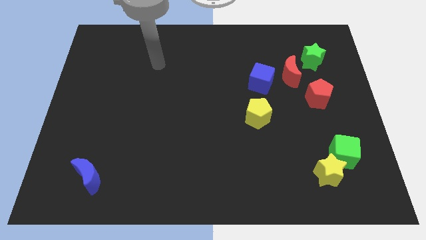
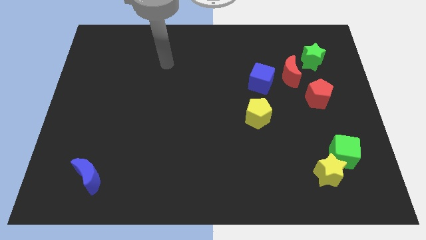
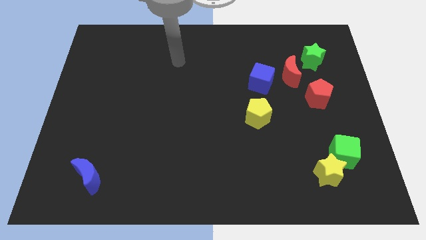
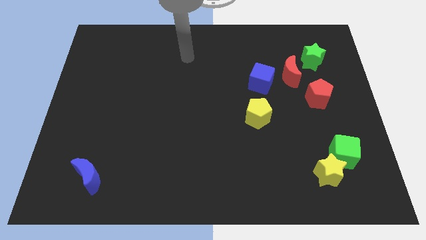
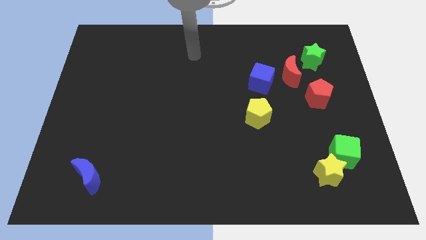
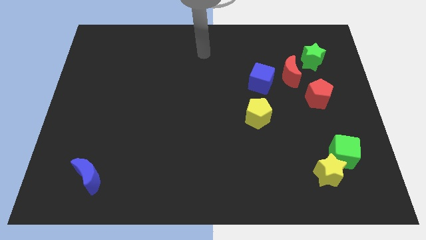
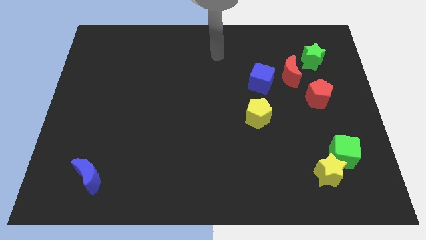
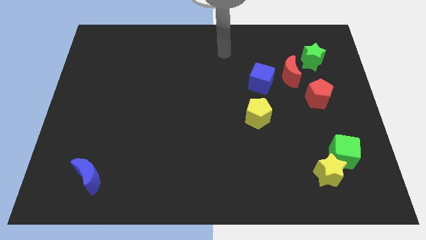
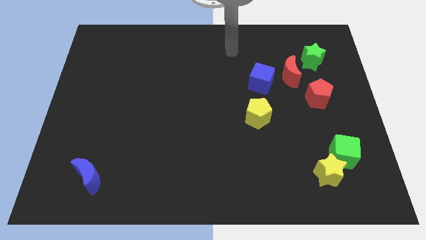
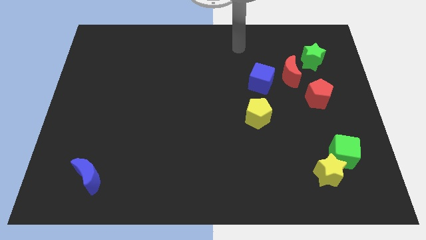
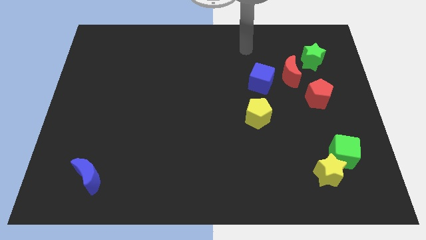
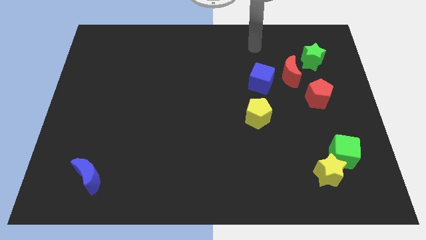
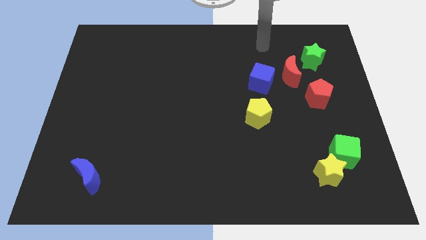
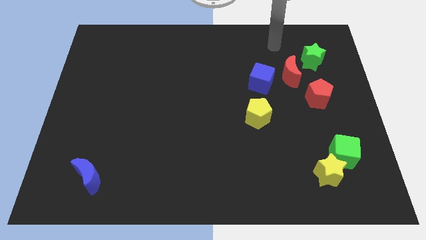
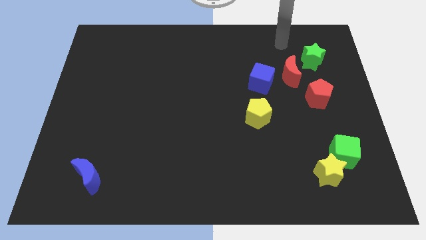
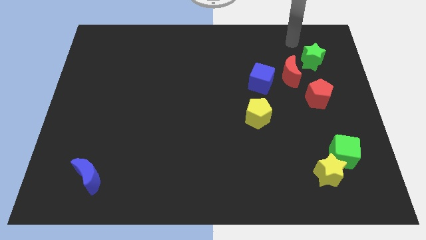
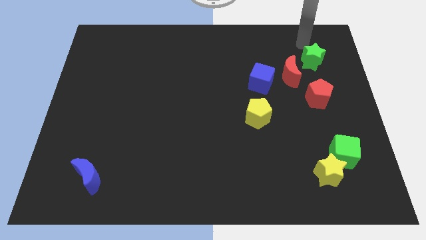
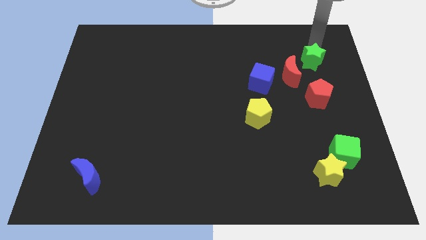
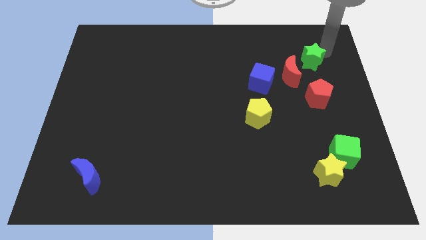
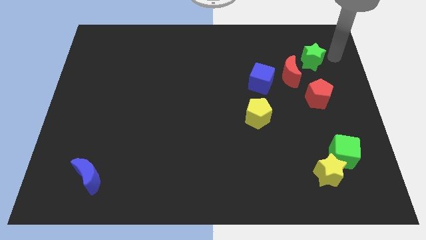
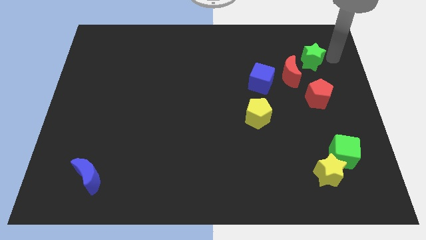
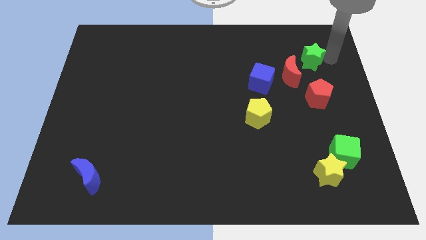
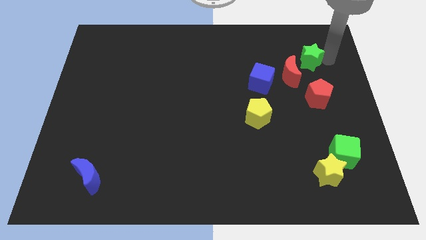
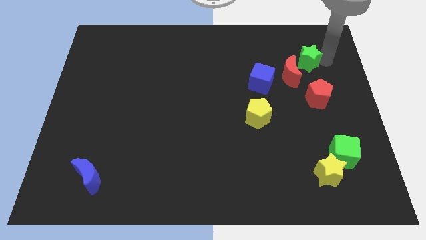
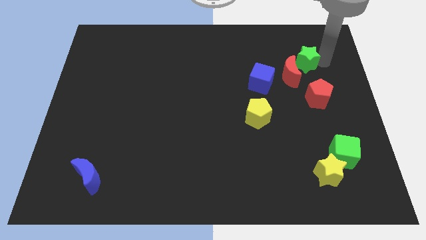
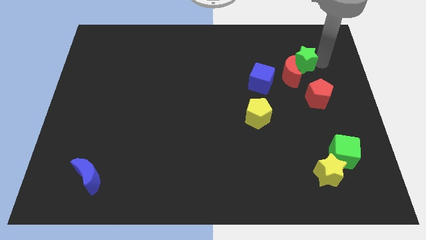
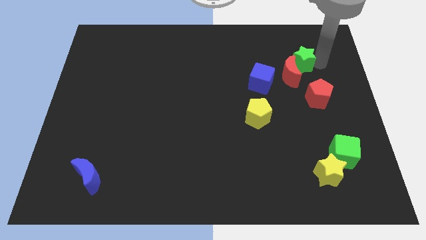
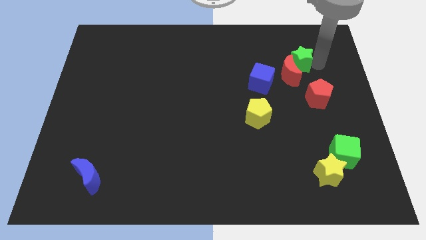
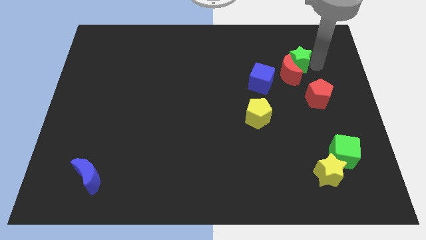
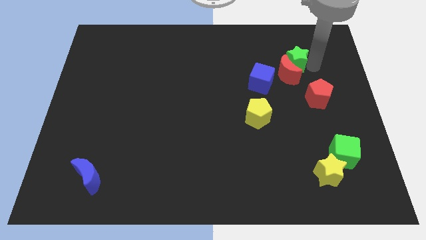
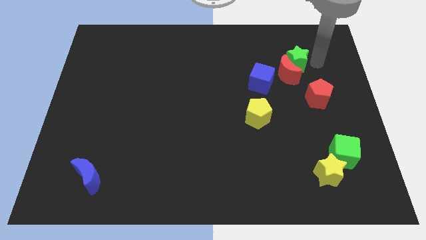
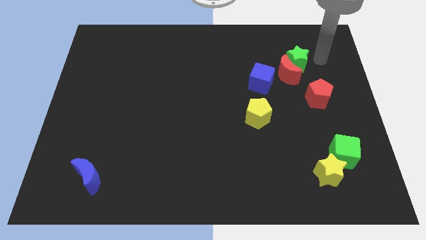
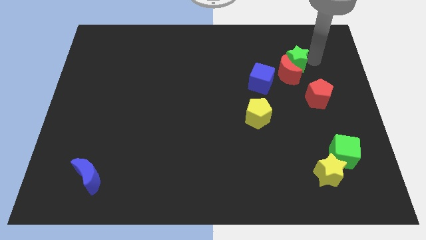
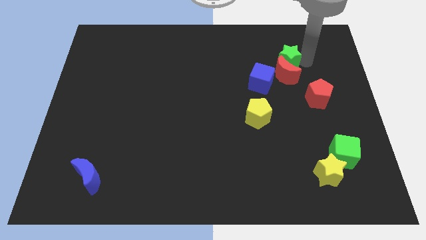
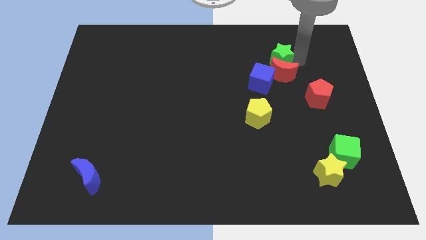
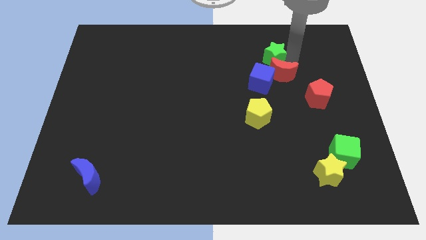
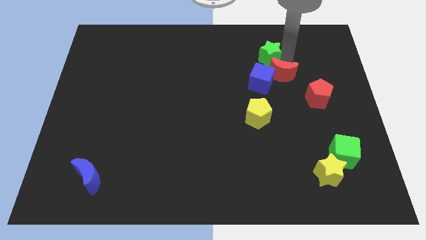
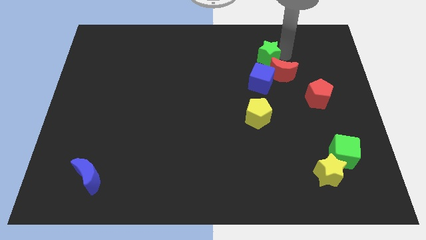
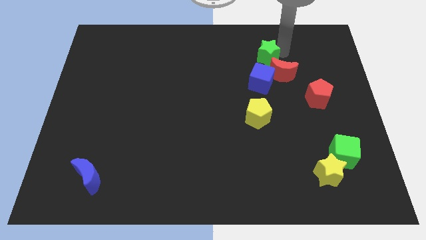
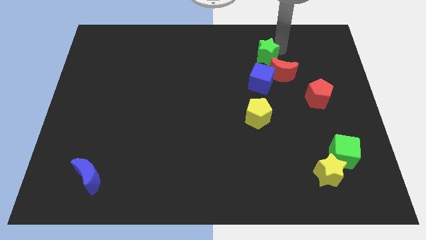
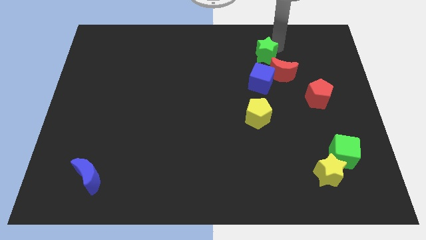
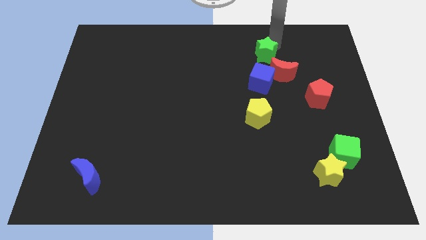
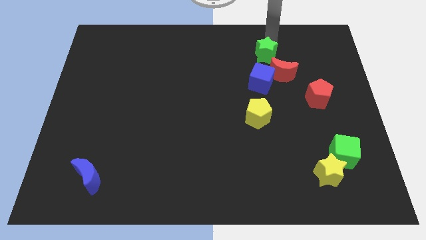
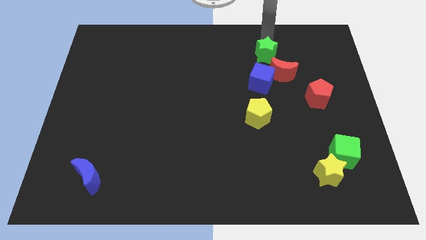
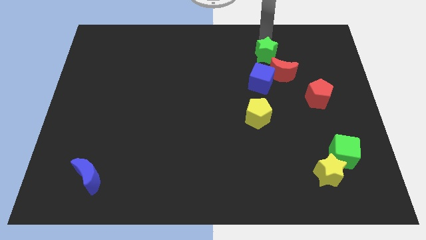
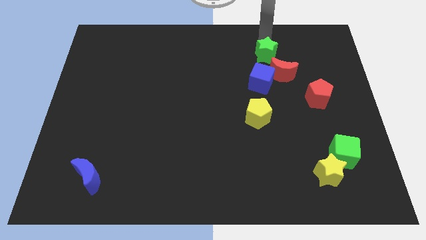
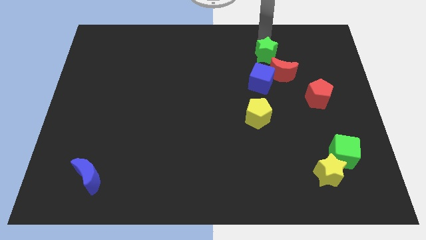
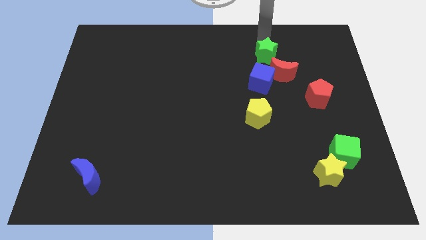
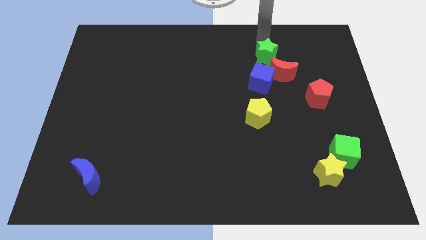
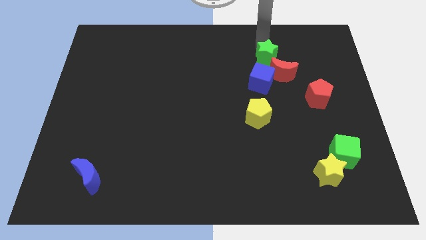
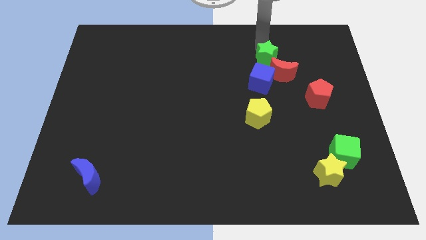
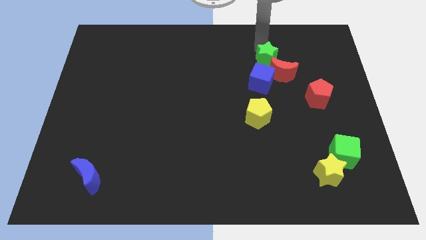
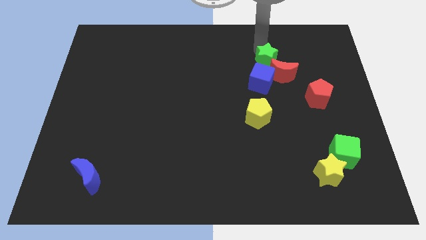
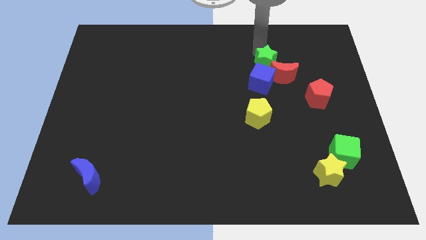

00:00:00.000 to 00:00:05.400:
push the green star to the left side of the red moon

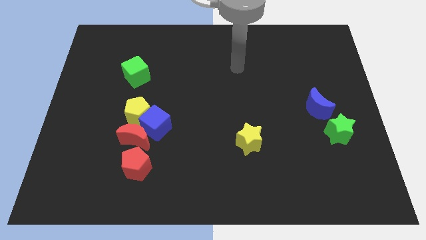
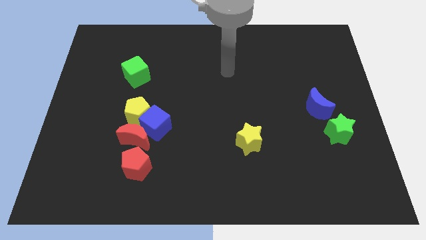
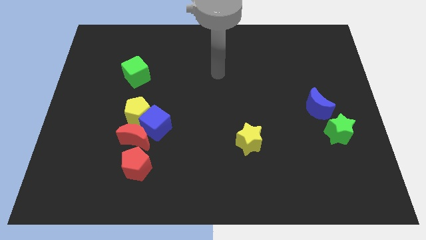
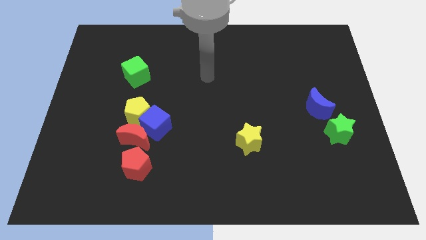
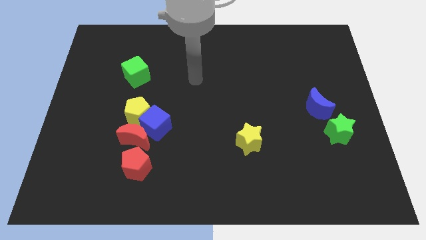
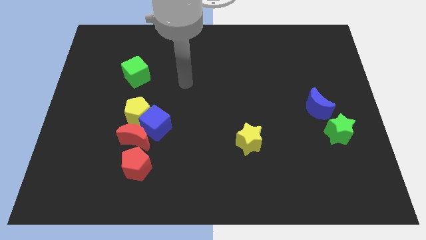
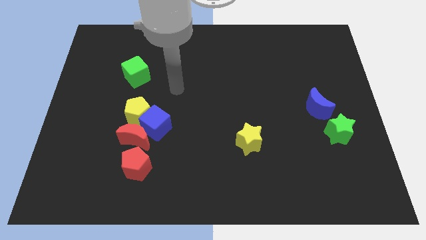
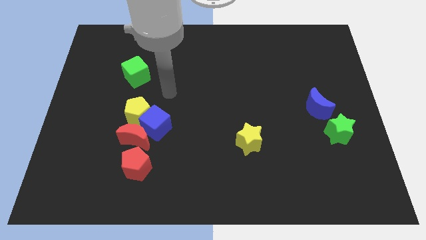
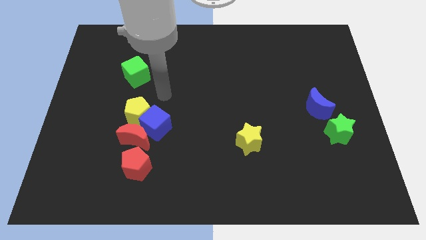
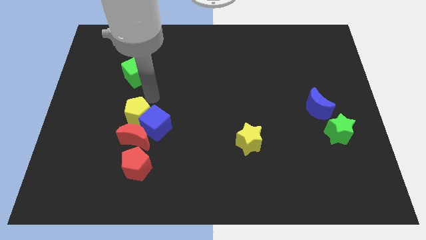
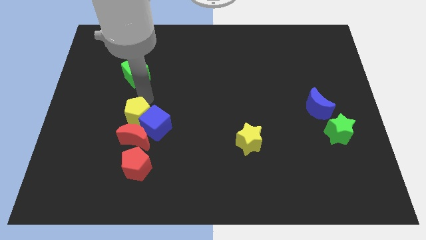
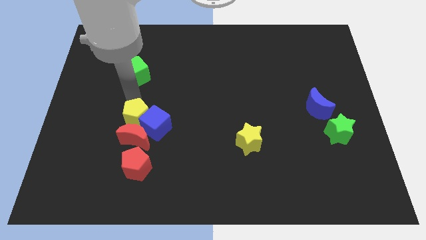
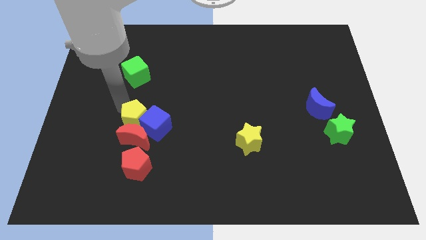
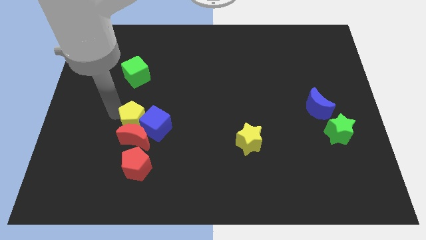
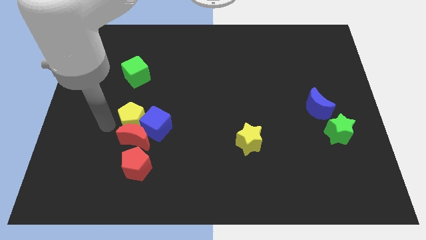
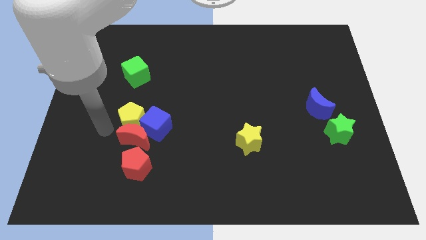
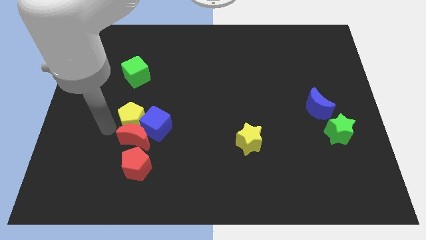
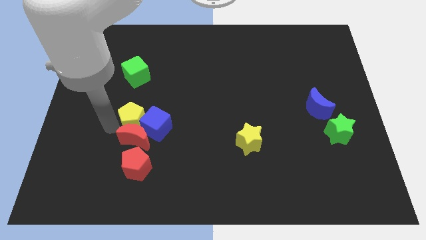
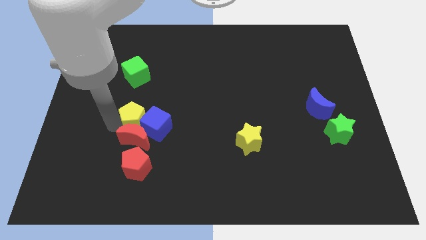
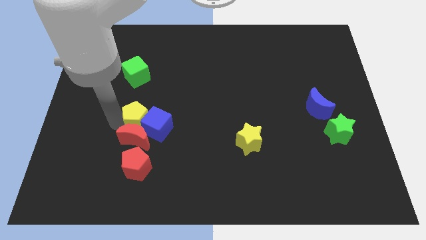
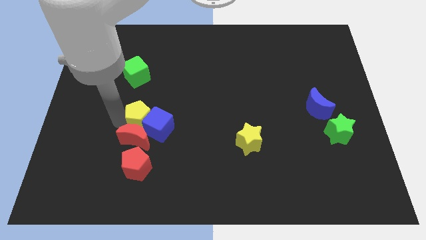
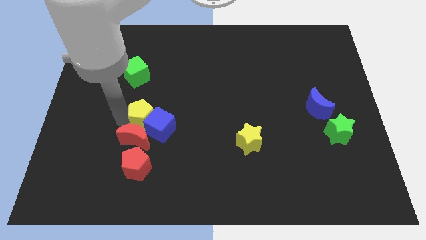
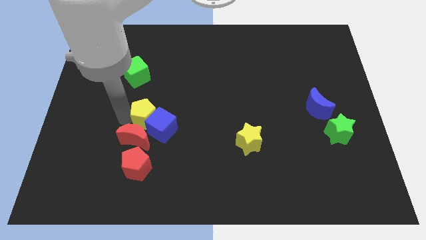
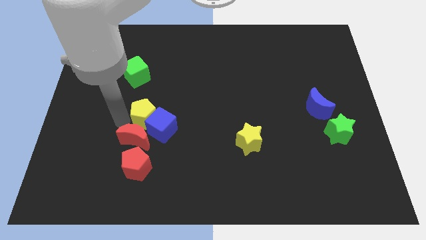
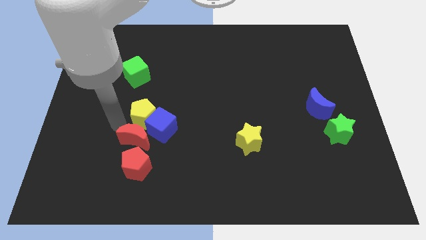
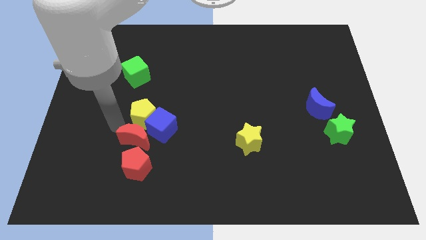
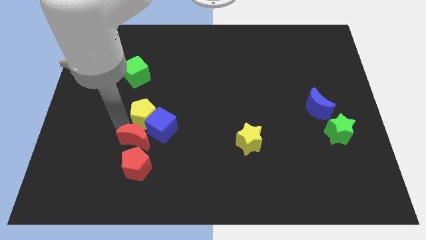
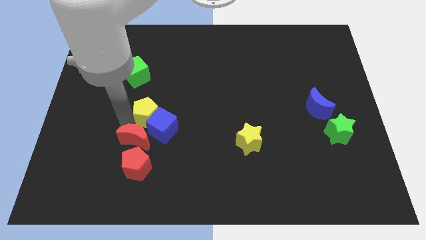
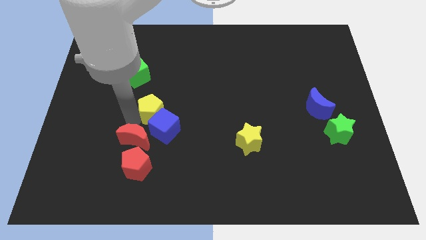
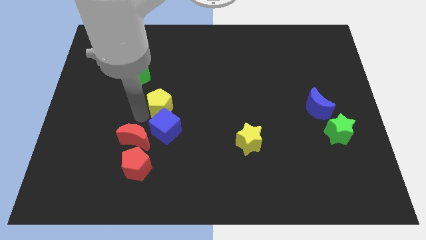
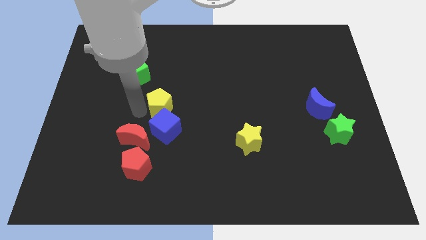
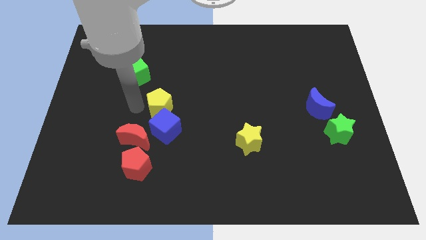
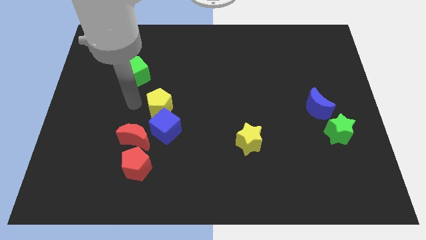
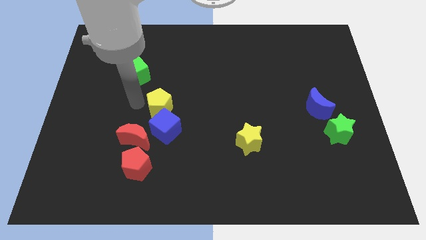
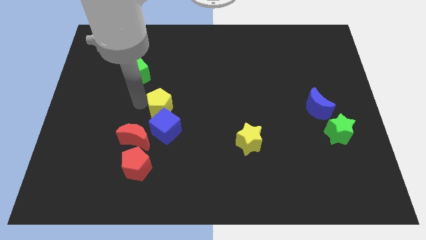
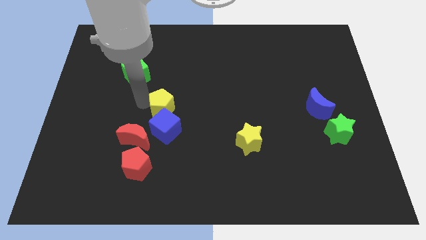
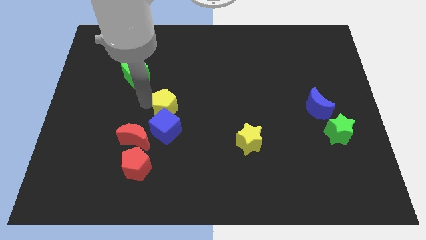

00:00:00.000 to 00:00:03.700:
put the yellow pentagon to the top right of the blue cube
